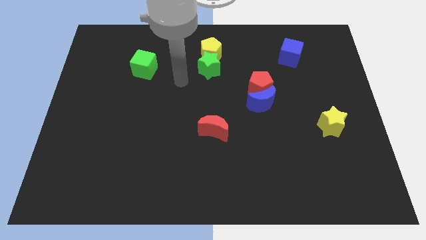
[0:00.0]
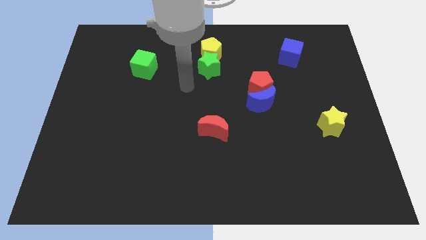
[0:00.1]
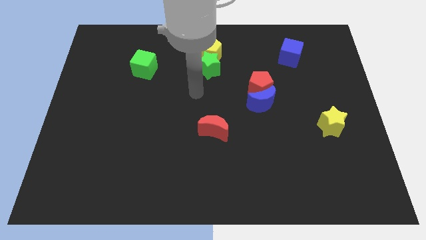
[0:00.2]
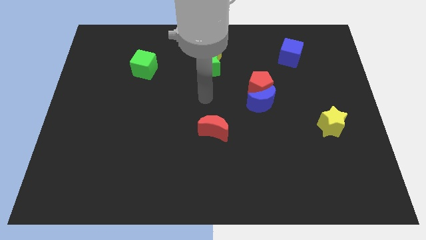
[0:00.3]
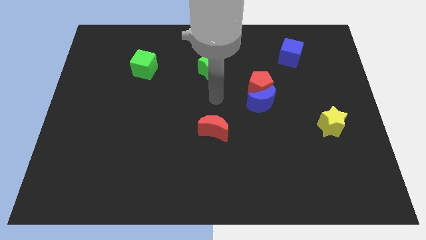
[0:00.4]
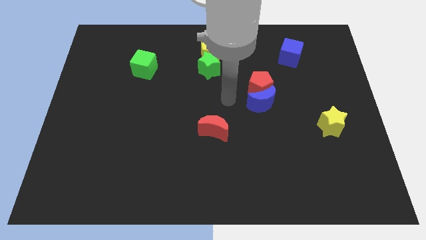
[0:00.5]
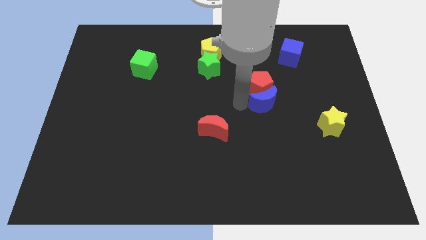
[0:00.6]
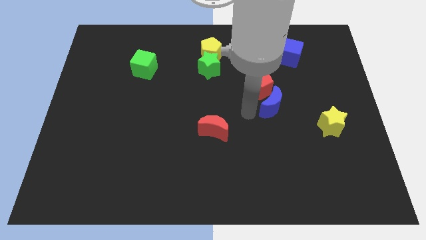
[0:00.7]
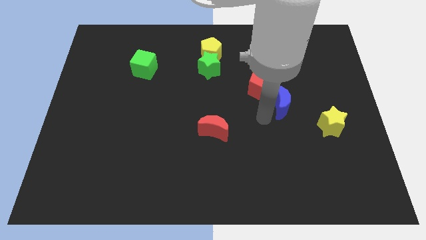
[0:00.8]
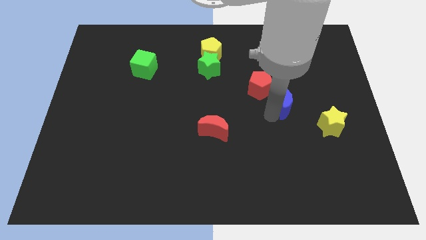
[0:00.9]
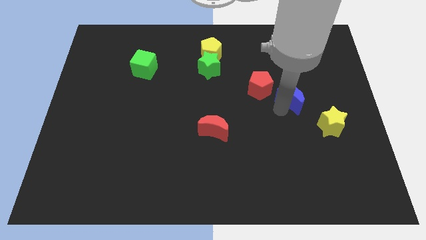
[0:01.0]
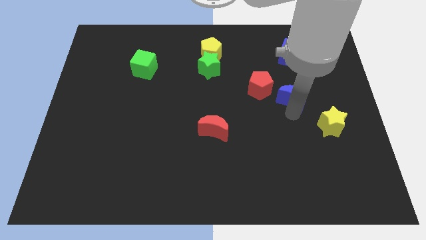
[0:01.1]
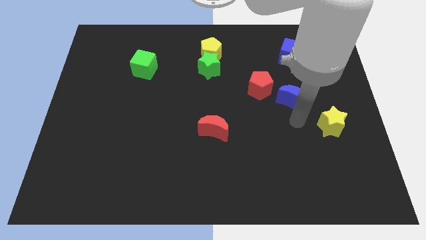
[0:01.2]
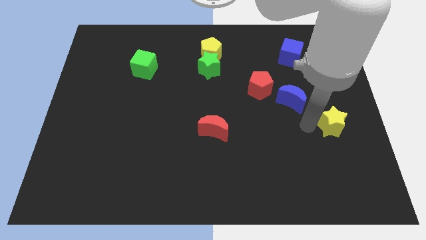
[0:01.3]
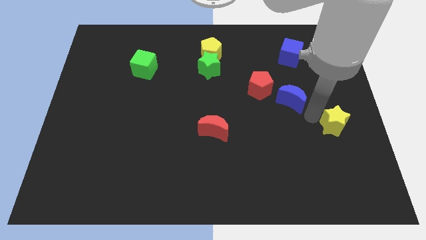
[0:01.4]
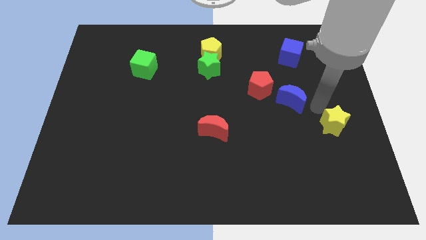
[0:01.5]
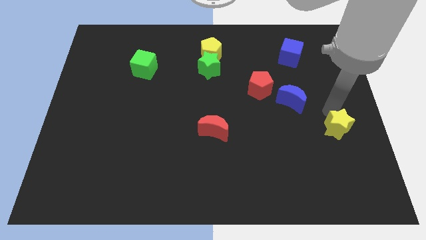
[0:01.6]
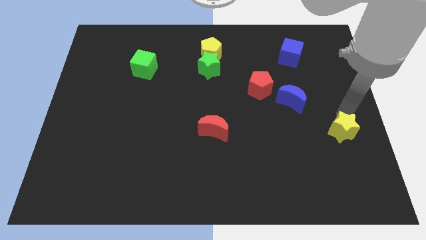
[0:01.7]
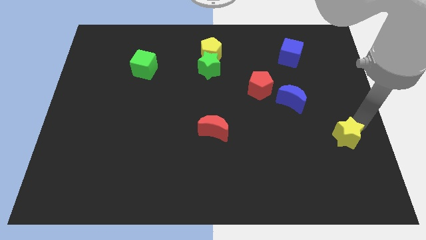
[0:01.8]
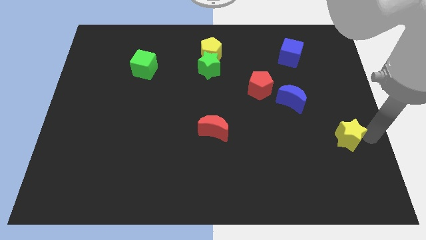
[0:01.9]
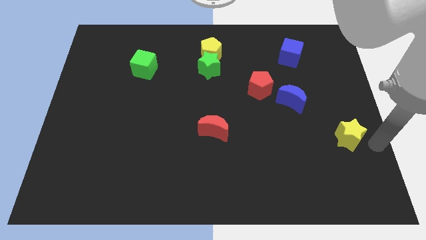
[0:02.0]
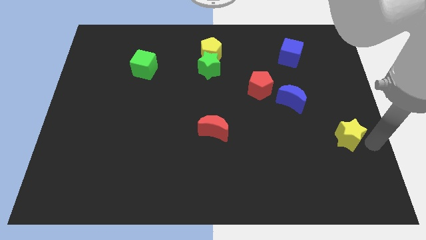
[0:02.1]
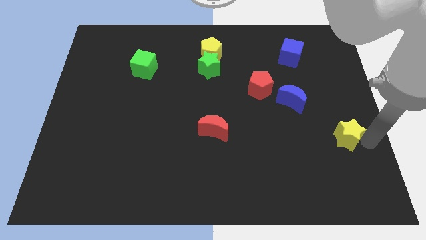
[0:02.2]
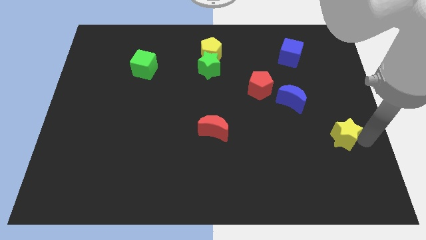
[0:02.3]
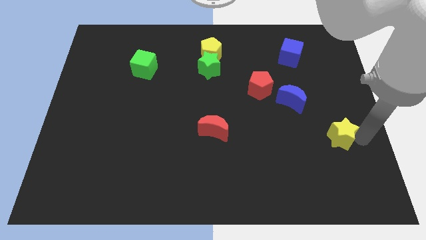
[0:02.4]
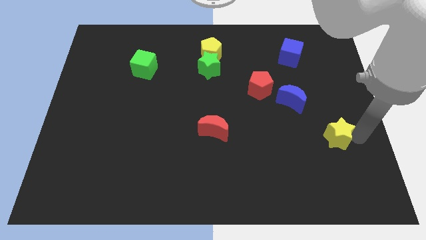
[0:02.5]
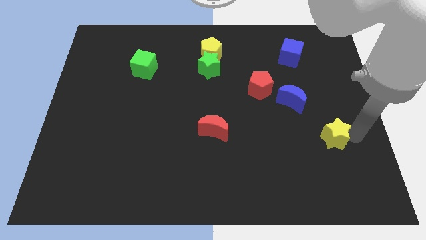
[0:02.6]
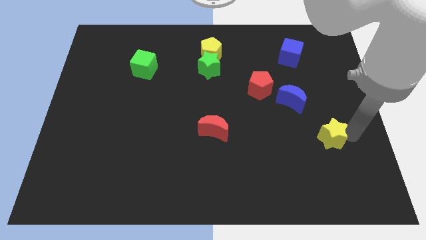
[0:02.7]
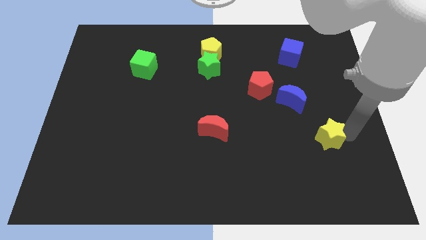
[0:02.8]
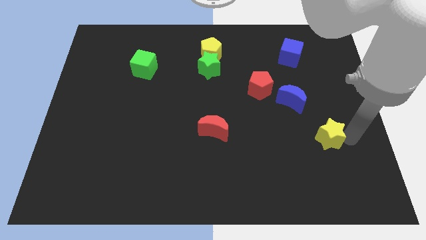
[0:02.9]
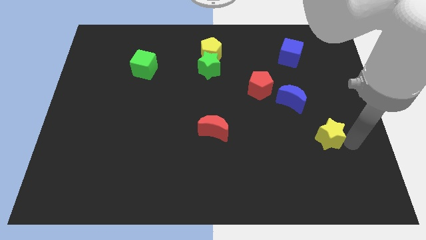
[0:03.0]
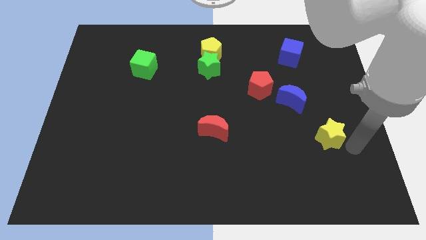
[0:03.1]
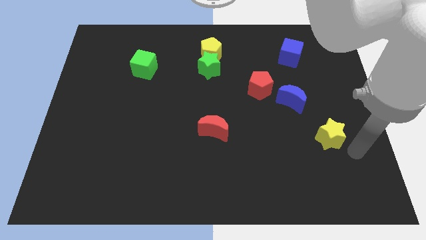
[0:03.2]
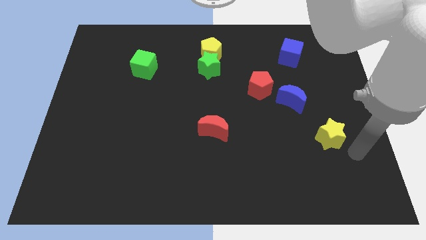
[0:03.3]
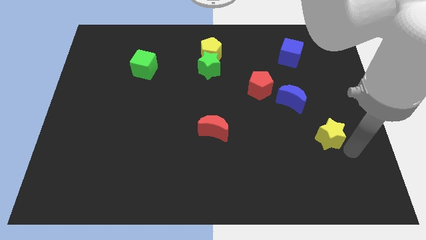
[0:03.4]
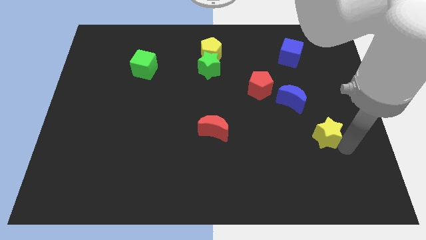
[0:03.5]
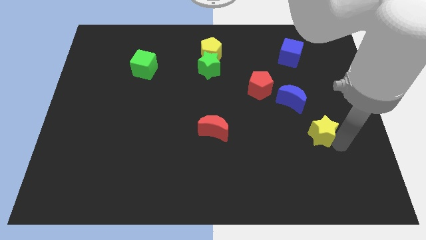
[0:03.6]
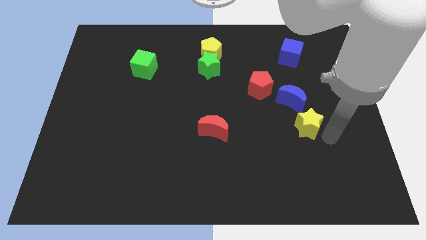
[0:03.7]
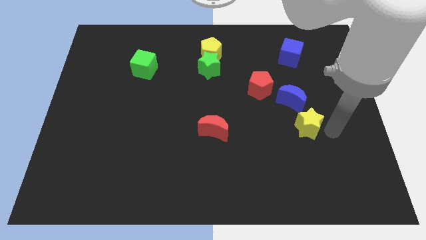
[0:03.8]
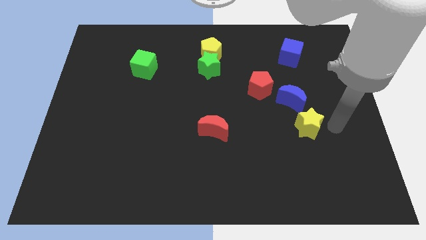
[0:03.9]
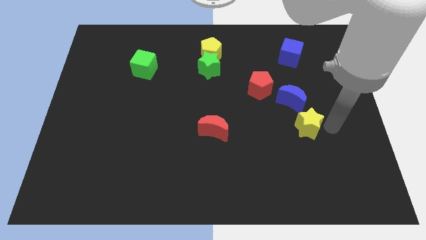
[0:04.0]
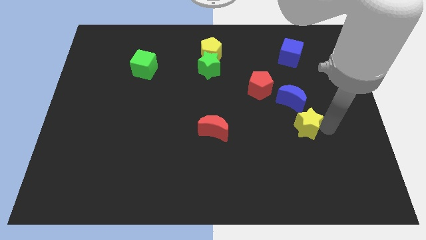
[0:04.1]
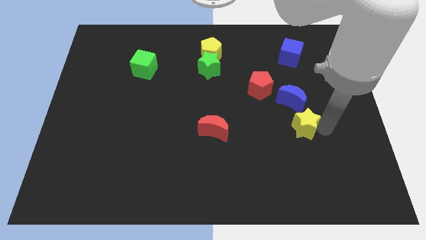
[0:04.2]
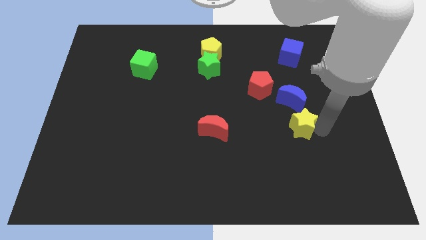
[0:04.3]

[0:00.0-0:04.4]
slightly move the yellow star to the left

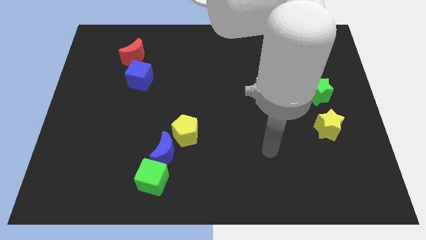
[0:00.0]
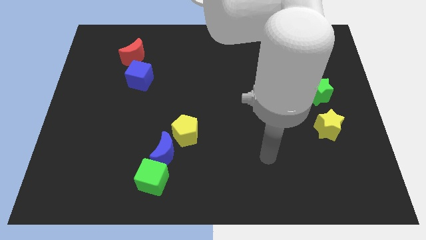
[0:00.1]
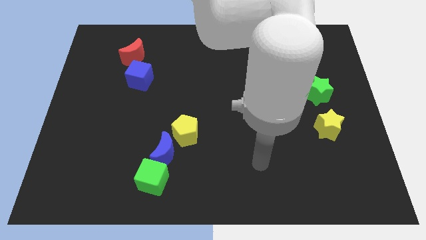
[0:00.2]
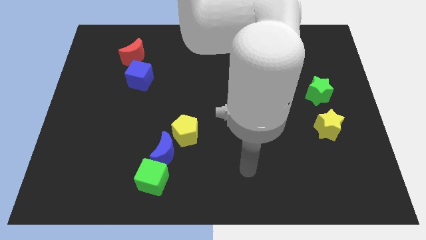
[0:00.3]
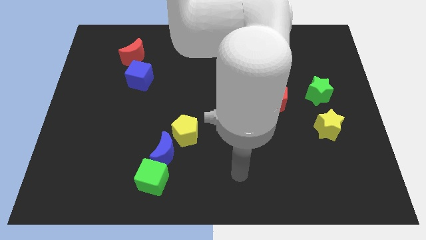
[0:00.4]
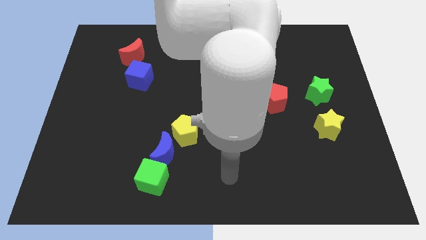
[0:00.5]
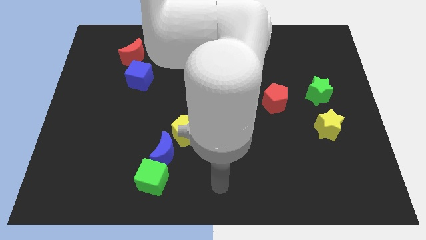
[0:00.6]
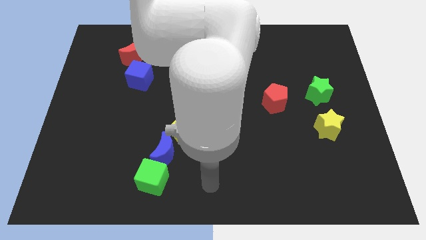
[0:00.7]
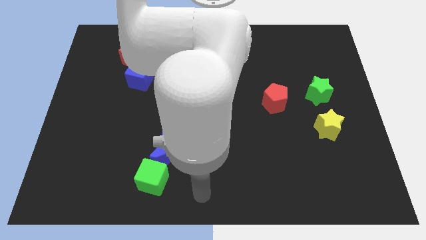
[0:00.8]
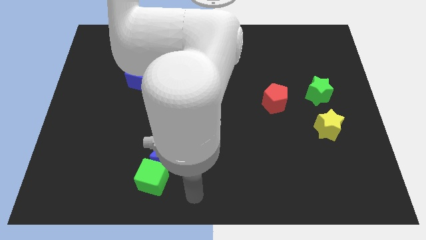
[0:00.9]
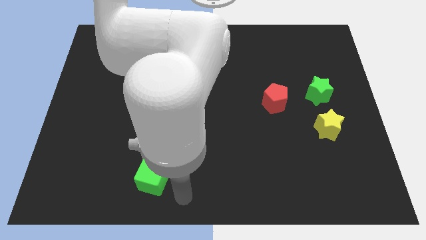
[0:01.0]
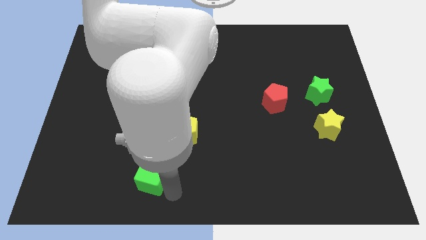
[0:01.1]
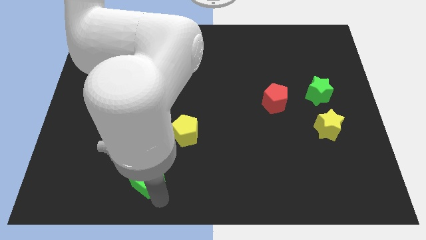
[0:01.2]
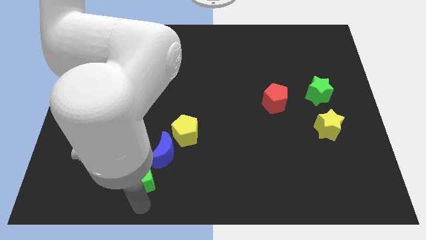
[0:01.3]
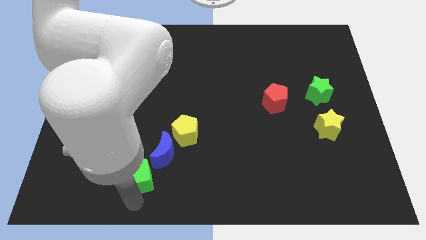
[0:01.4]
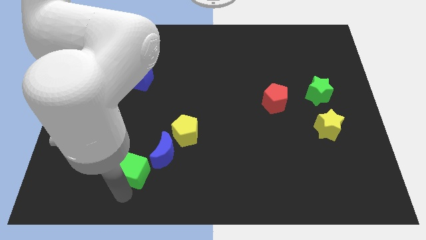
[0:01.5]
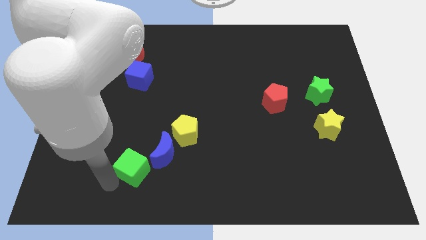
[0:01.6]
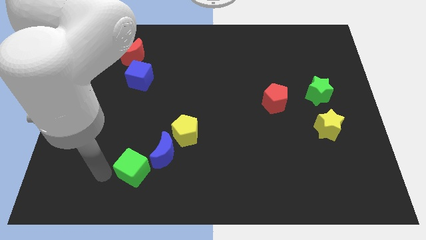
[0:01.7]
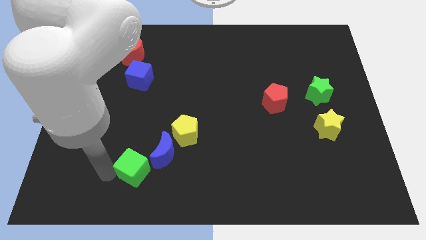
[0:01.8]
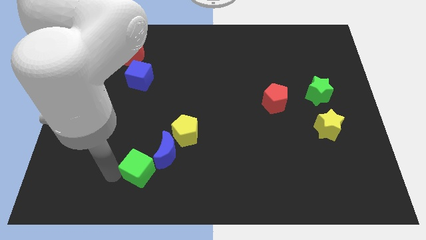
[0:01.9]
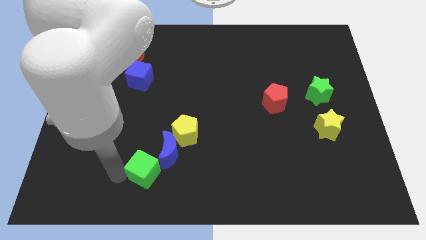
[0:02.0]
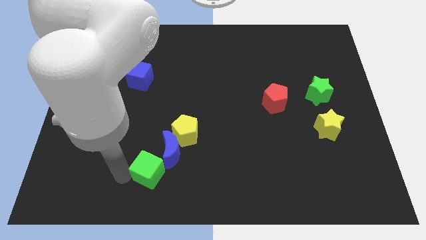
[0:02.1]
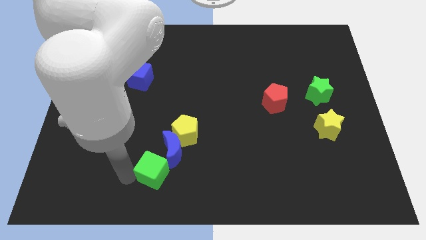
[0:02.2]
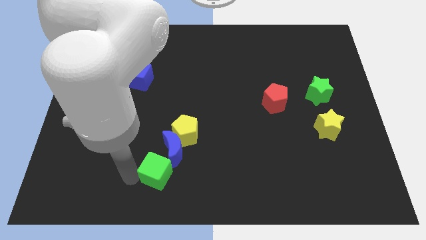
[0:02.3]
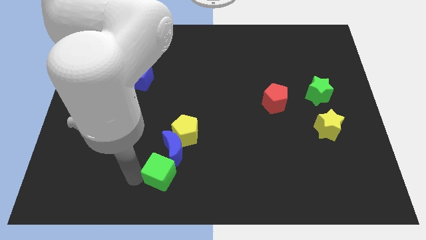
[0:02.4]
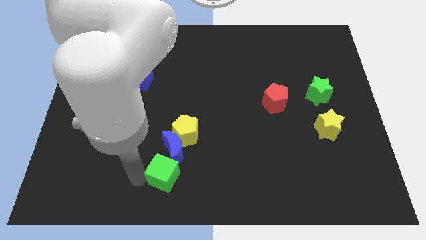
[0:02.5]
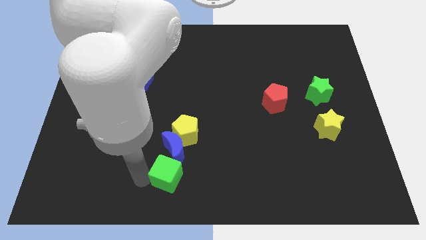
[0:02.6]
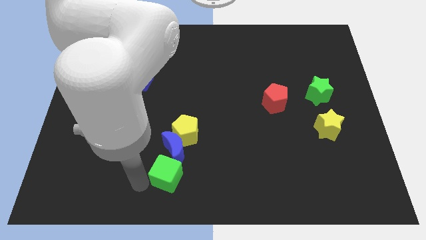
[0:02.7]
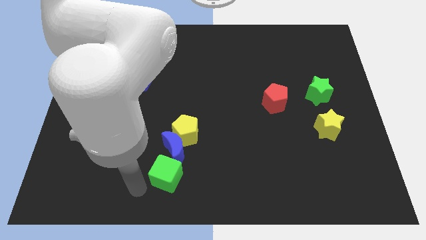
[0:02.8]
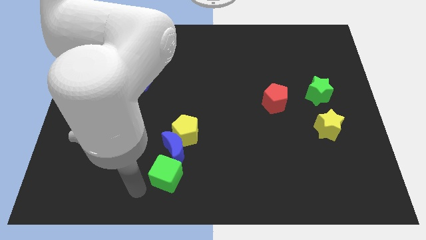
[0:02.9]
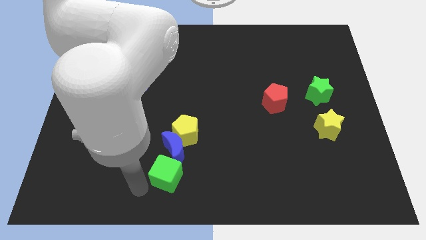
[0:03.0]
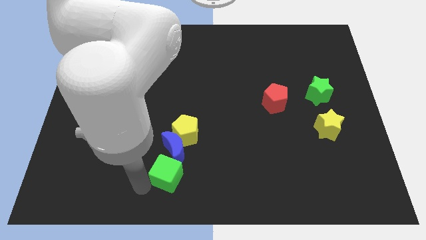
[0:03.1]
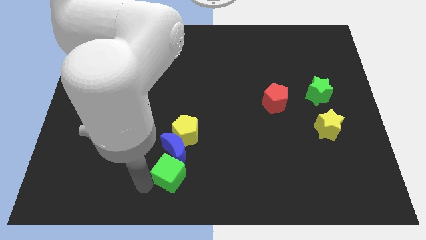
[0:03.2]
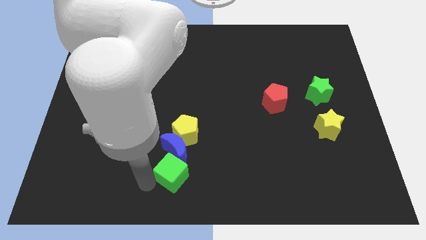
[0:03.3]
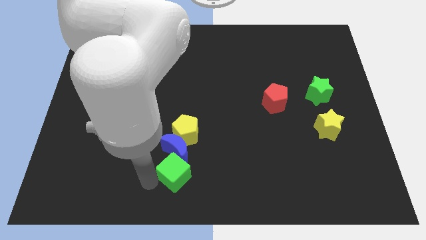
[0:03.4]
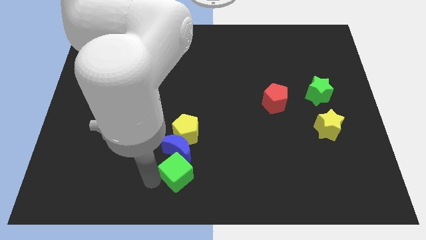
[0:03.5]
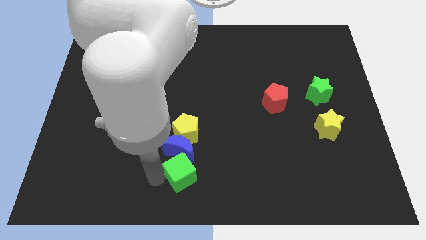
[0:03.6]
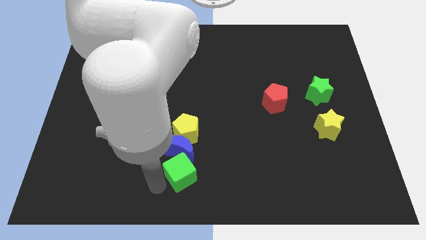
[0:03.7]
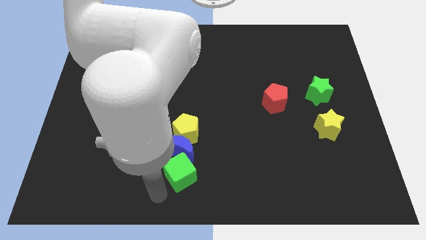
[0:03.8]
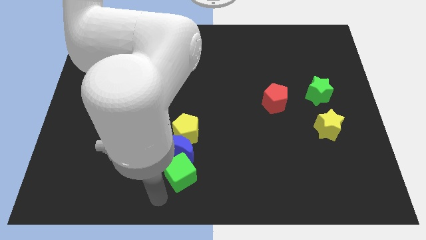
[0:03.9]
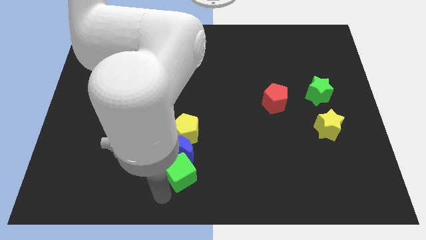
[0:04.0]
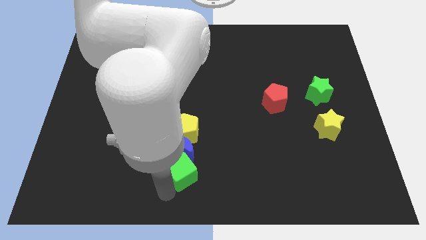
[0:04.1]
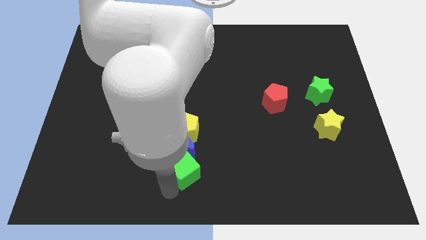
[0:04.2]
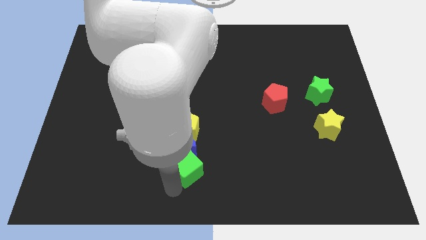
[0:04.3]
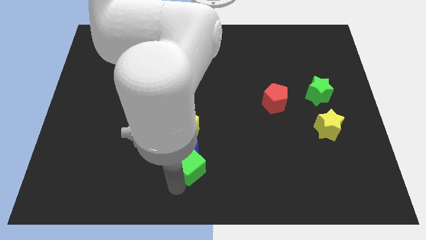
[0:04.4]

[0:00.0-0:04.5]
push the green cube up and to the right diagonally a bit
